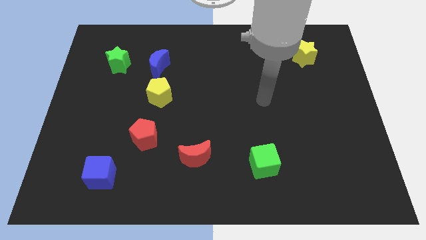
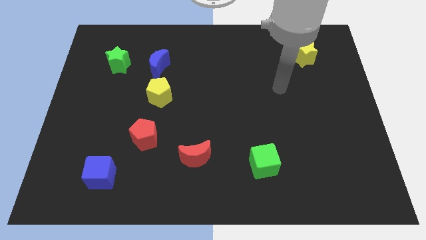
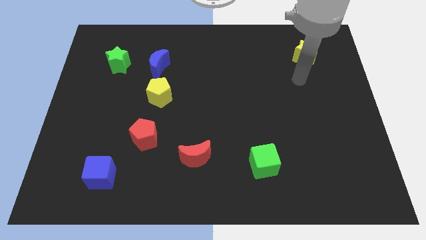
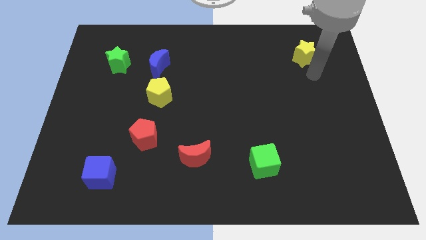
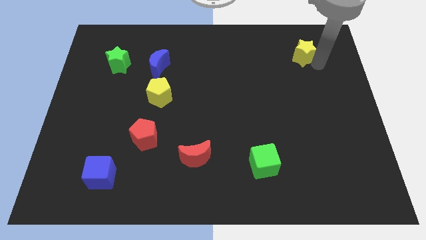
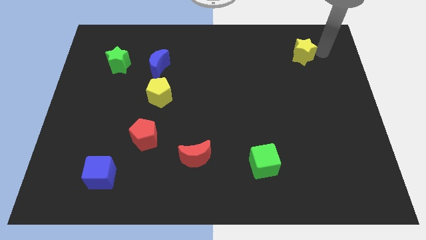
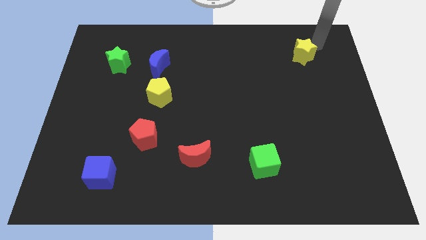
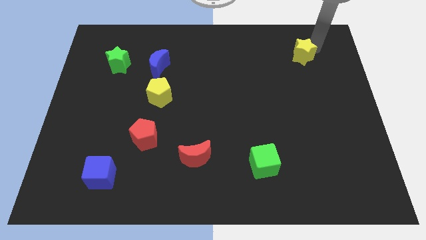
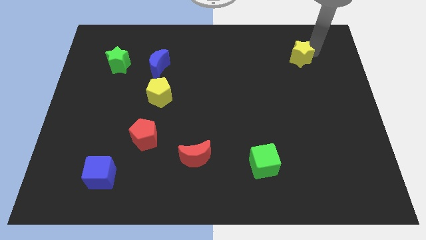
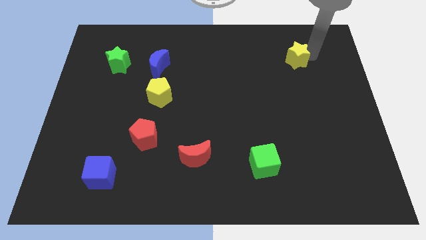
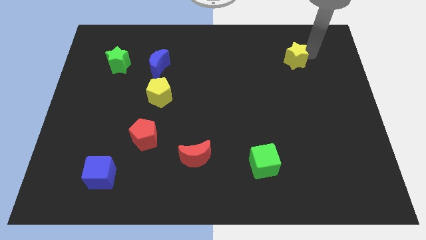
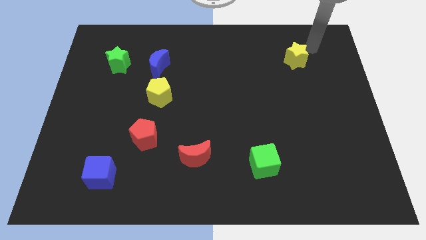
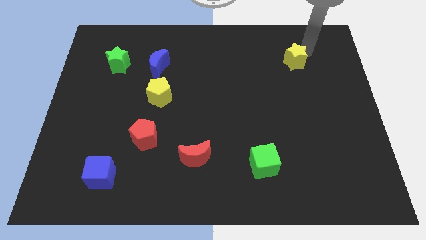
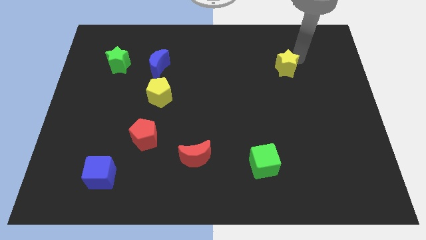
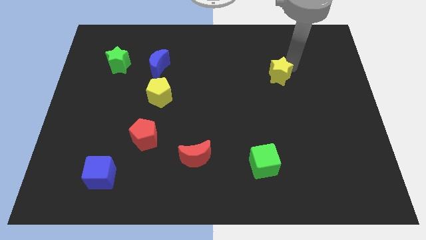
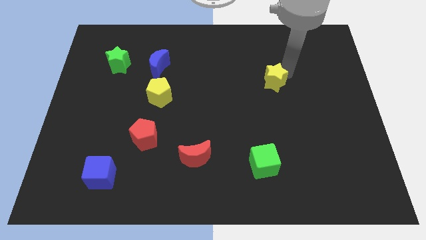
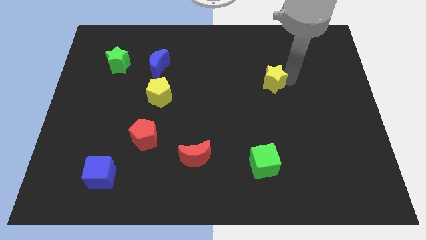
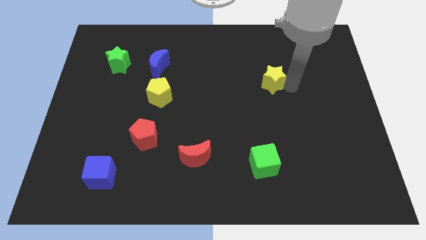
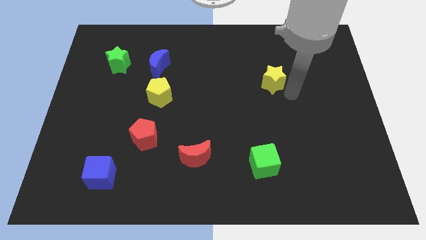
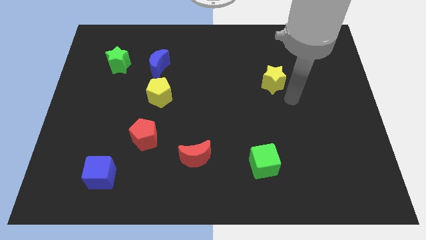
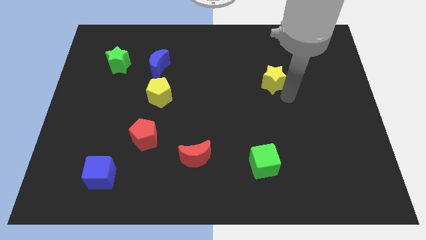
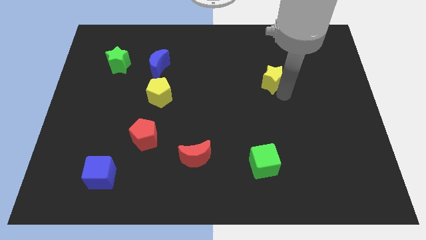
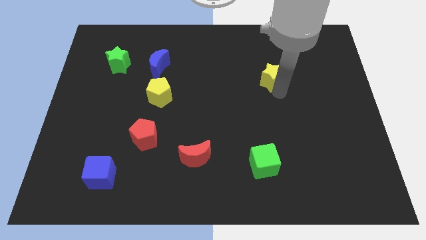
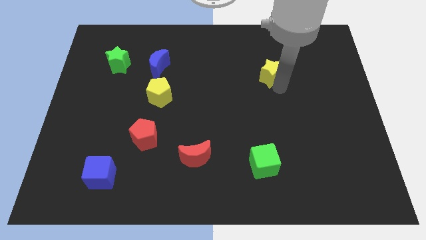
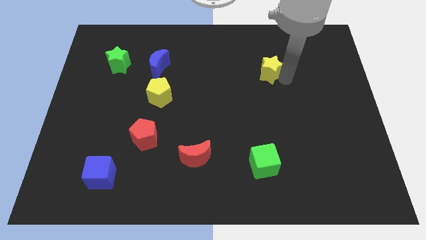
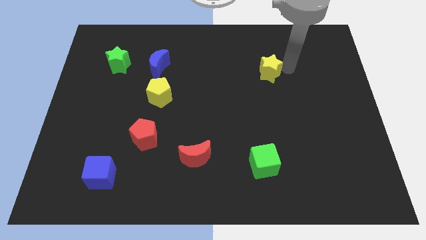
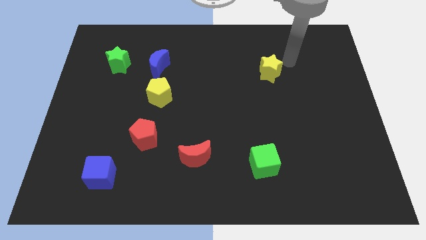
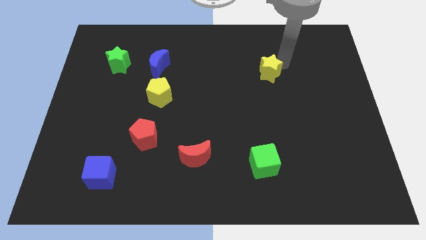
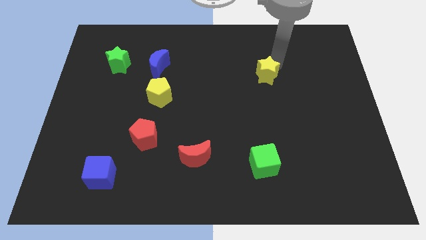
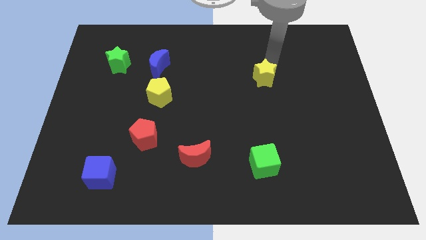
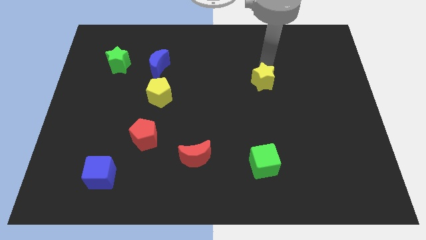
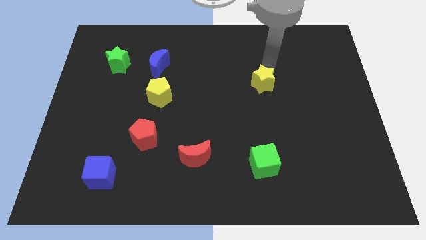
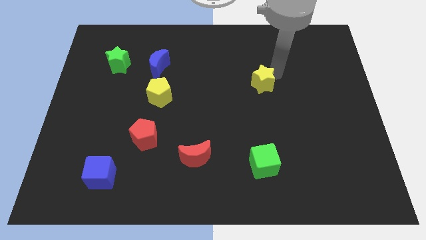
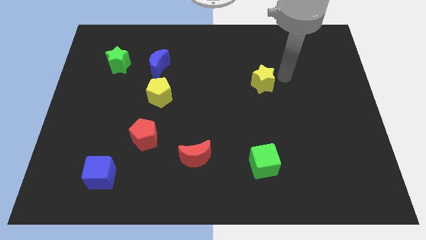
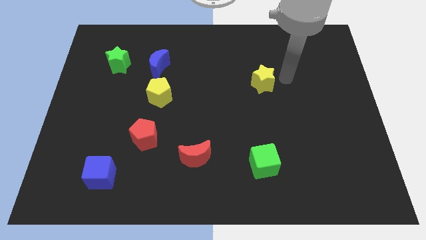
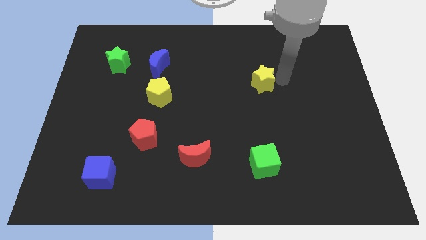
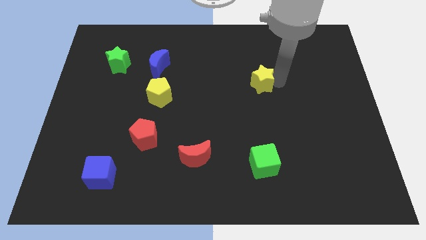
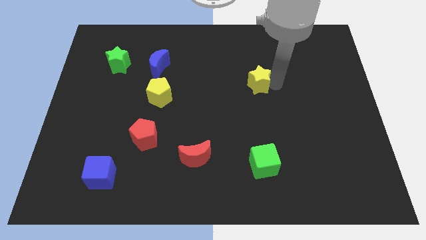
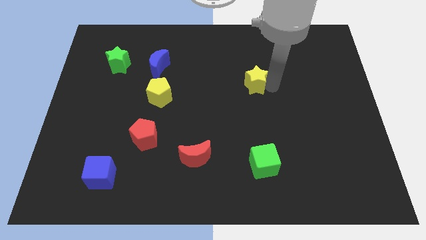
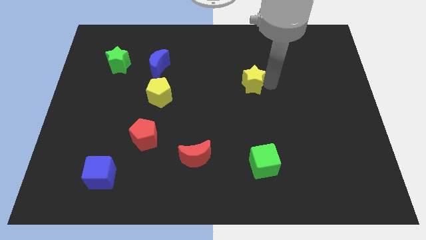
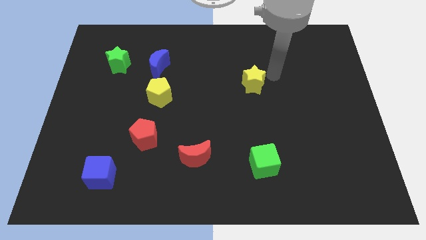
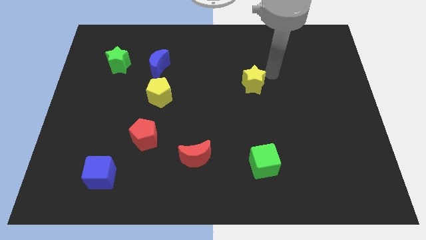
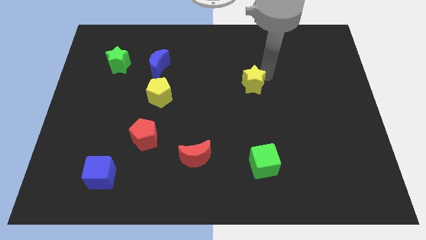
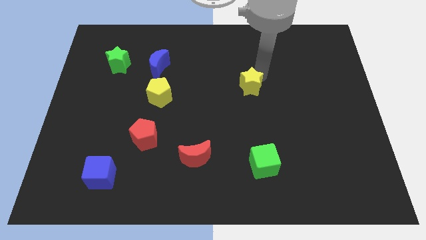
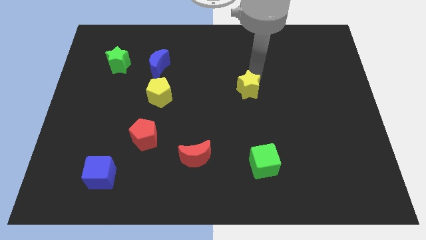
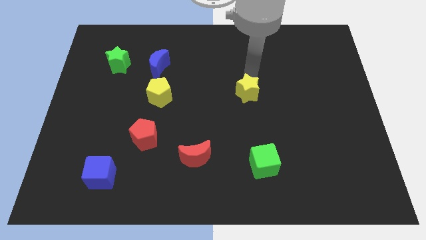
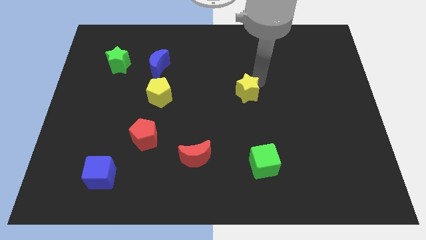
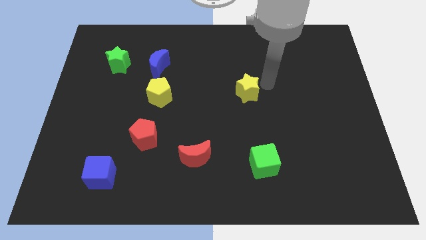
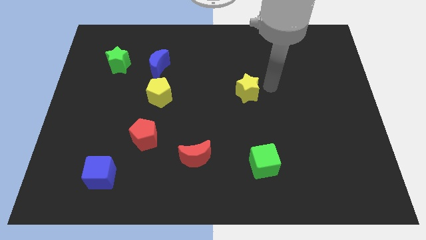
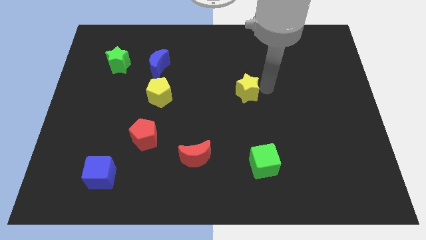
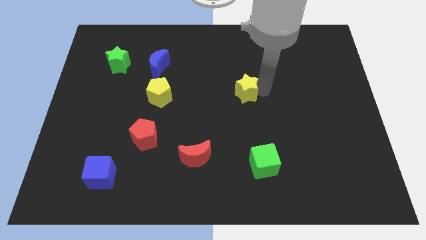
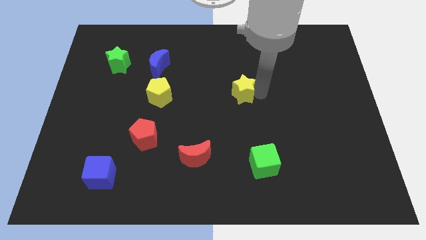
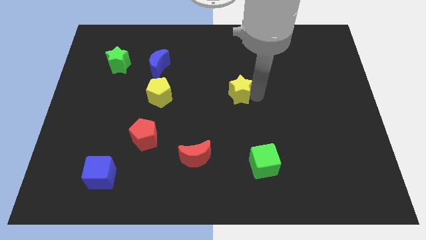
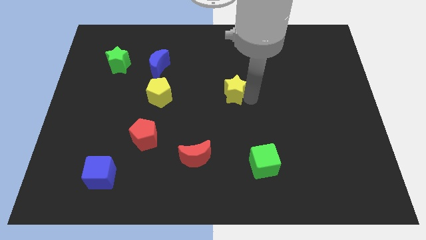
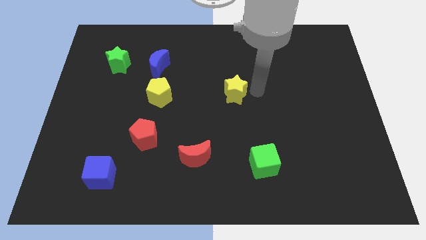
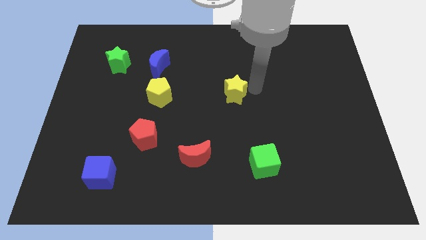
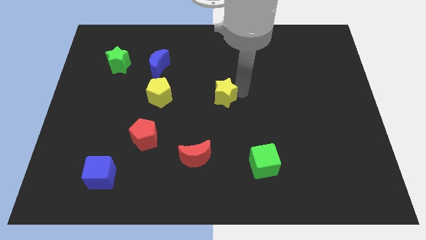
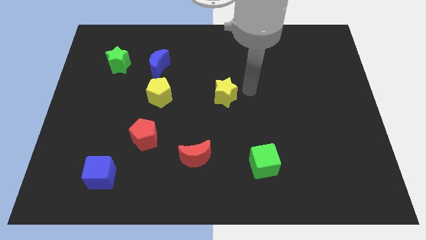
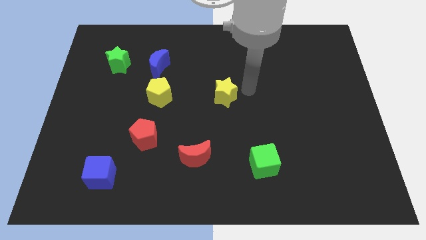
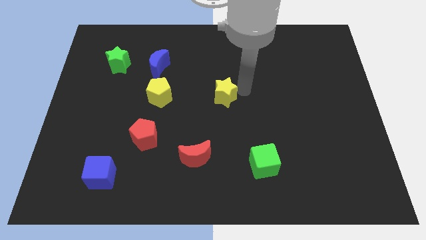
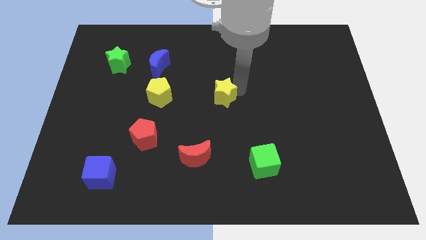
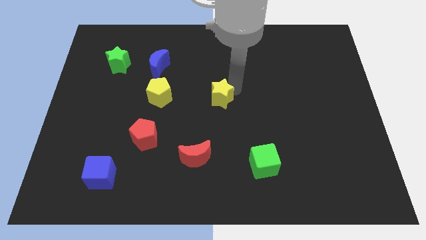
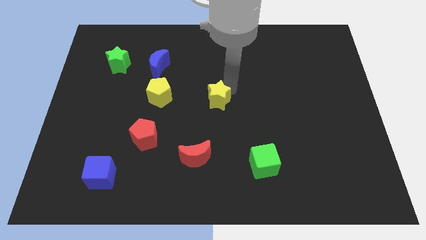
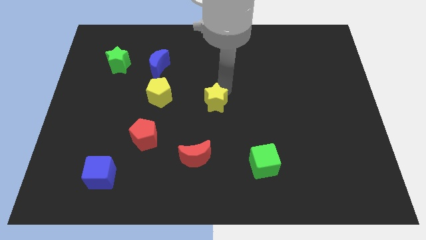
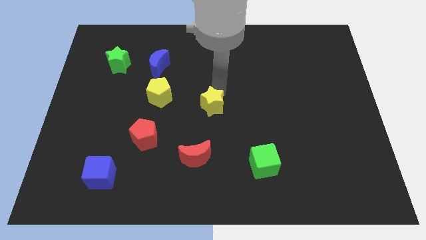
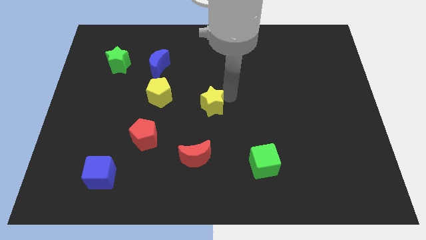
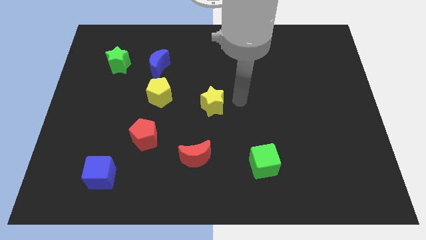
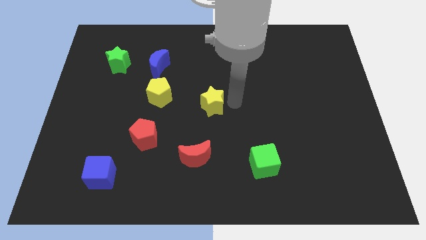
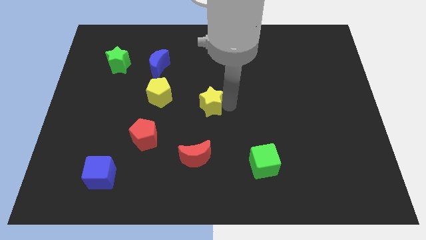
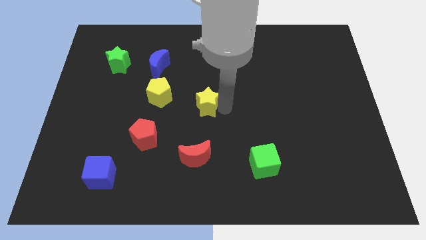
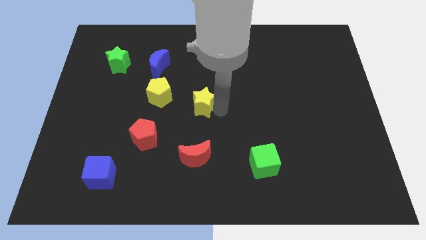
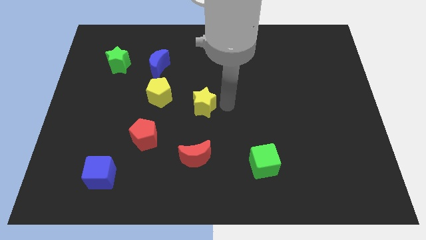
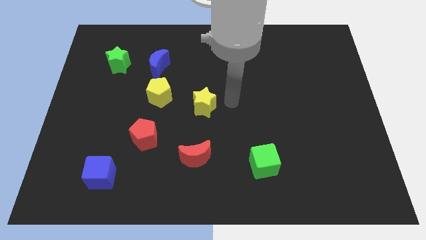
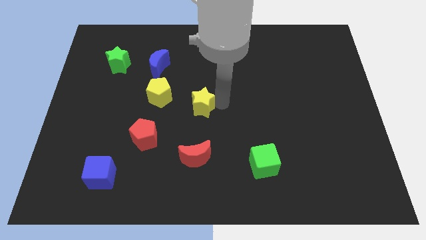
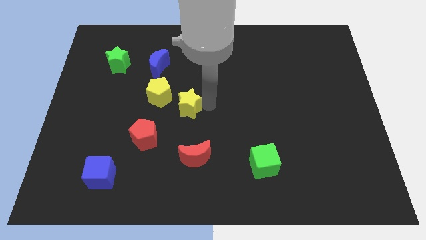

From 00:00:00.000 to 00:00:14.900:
put the yellow star to the top right side of the red pentagon
